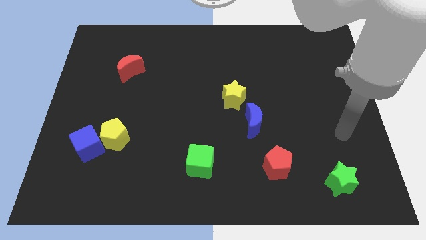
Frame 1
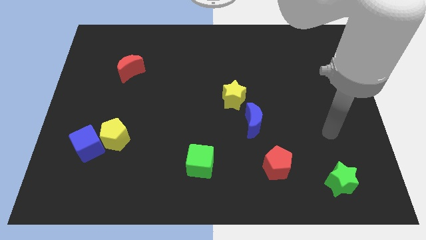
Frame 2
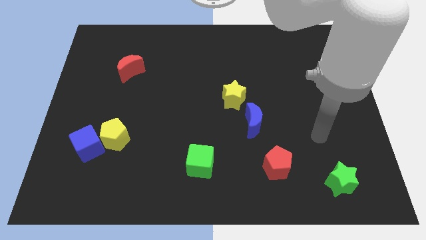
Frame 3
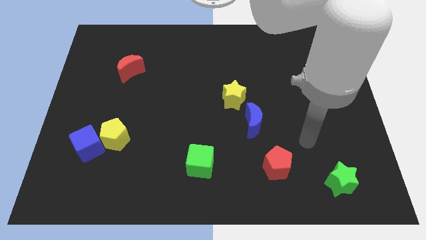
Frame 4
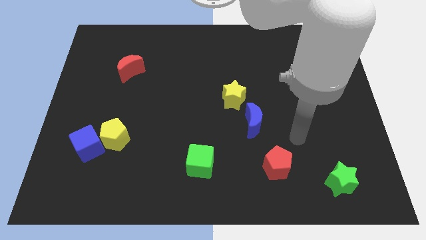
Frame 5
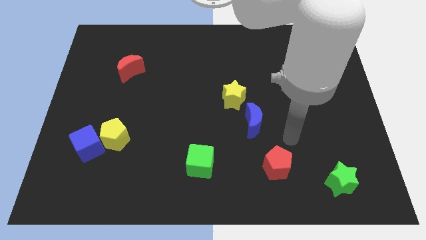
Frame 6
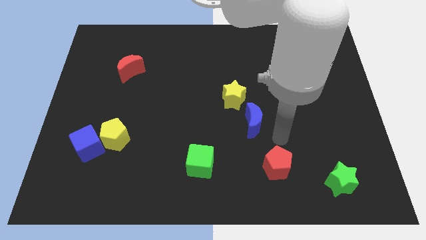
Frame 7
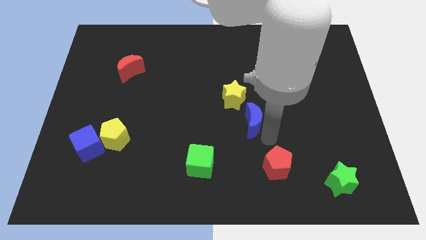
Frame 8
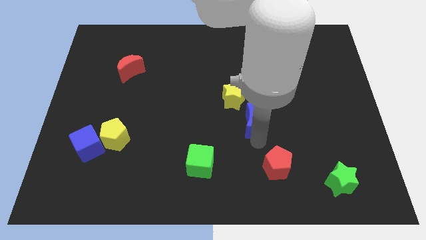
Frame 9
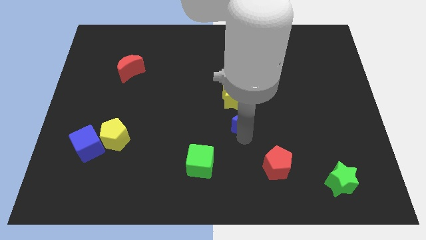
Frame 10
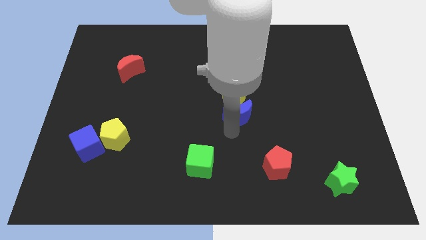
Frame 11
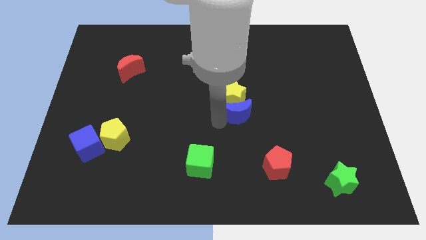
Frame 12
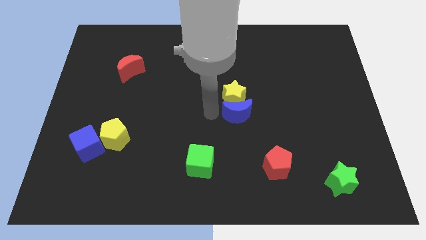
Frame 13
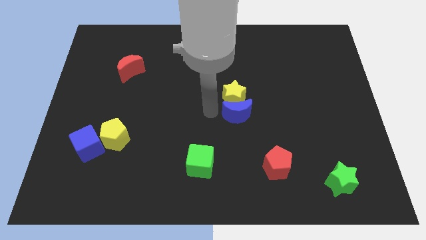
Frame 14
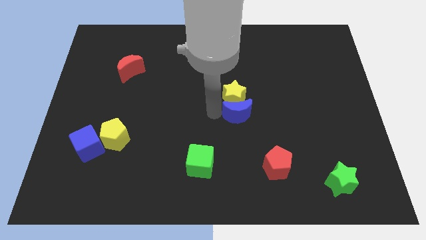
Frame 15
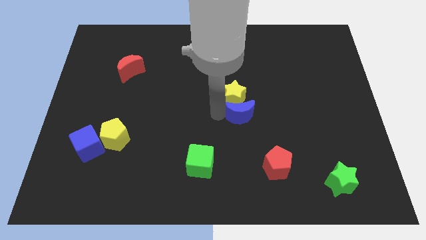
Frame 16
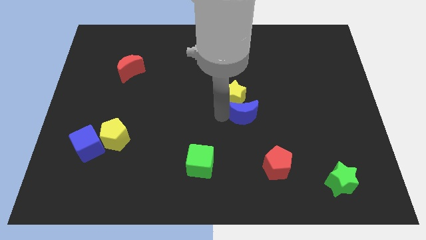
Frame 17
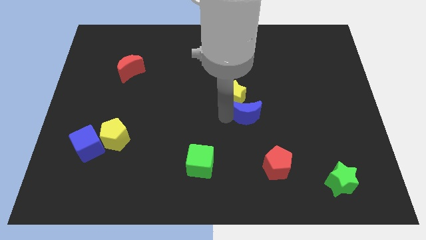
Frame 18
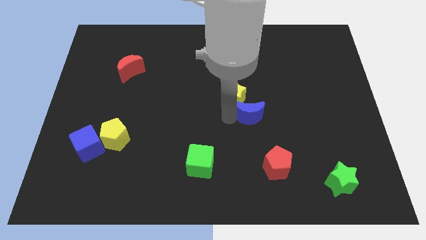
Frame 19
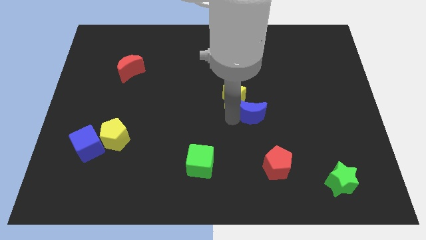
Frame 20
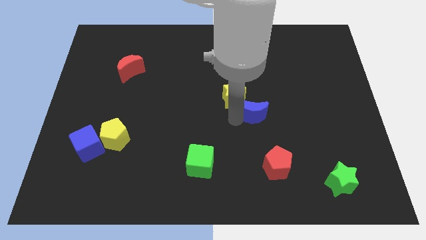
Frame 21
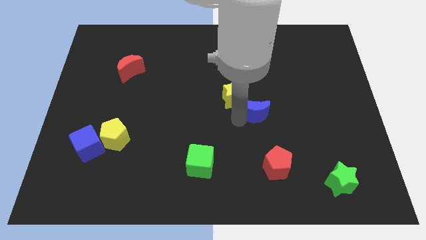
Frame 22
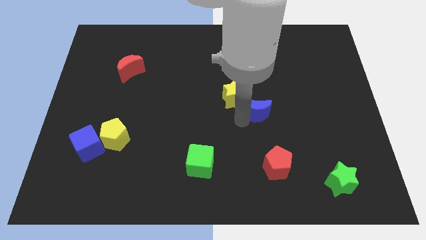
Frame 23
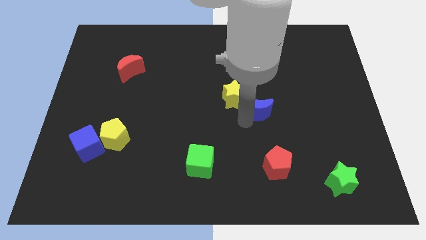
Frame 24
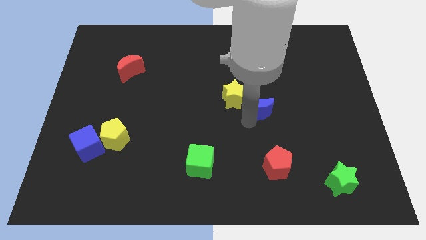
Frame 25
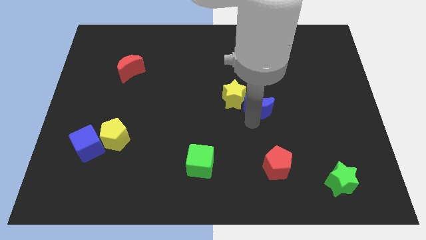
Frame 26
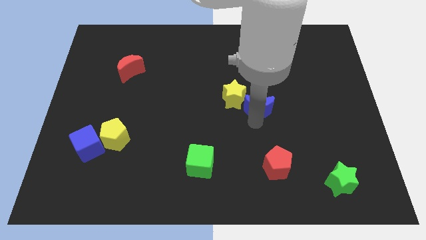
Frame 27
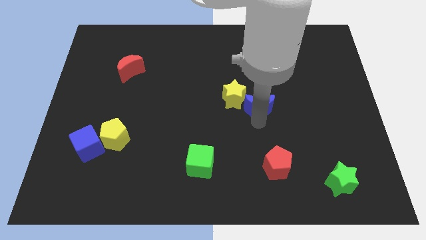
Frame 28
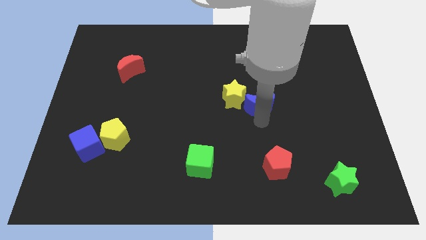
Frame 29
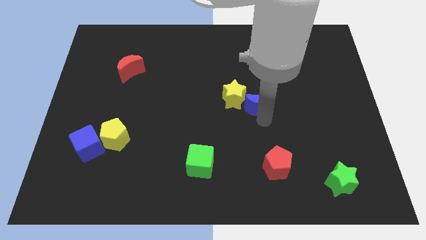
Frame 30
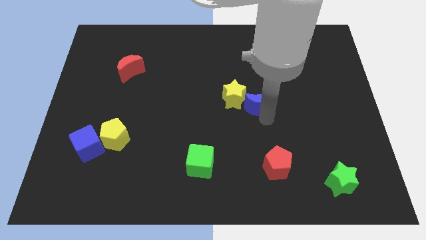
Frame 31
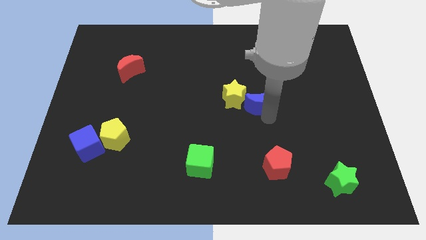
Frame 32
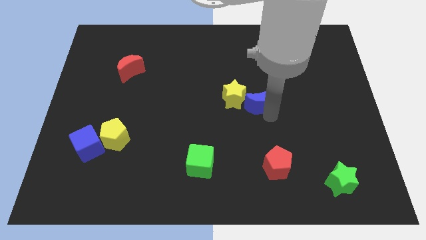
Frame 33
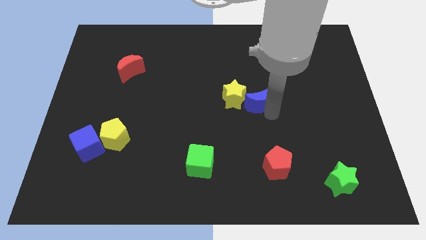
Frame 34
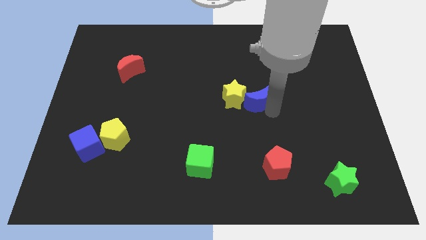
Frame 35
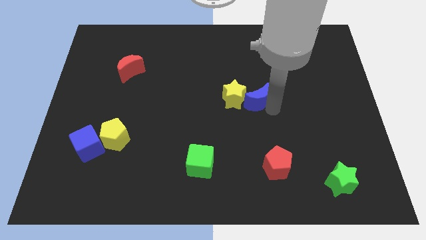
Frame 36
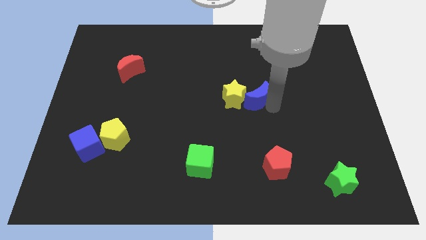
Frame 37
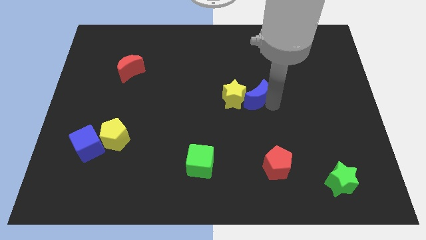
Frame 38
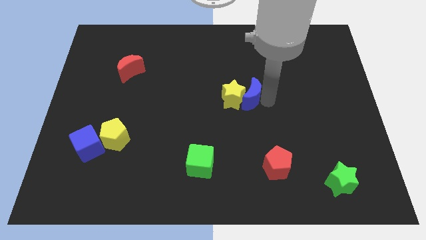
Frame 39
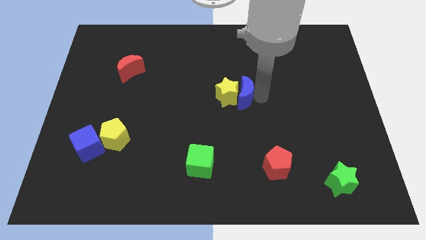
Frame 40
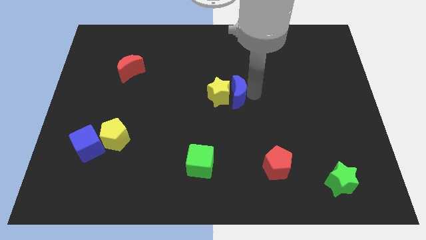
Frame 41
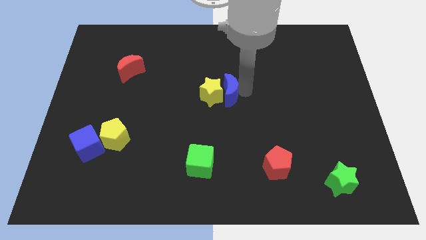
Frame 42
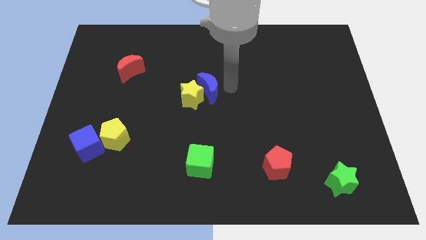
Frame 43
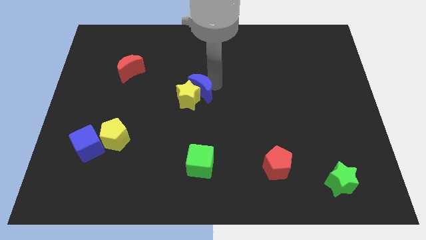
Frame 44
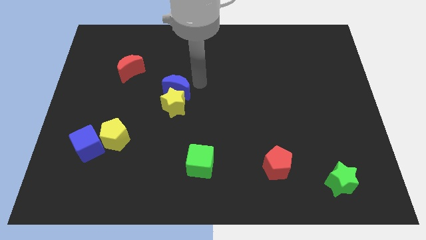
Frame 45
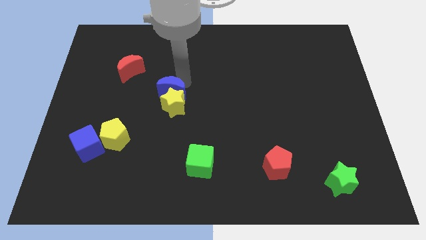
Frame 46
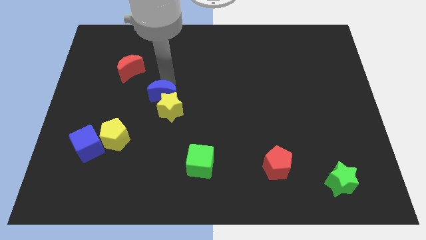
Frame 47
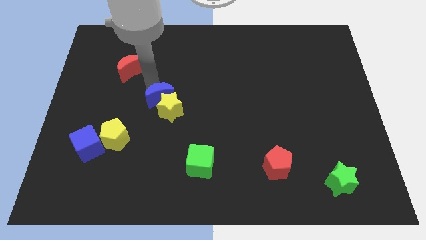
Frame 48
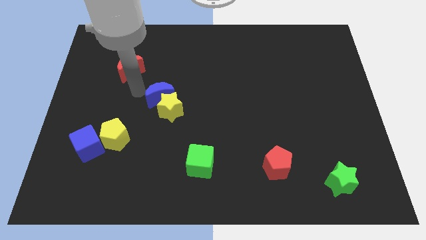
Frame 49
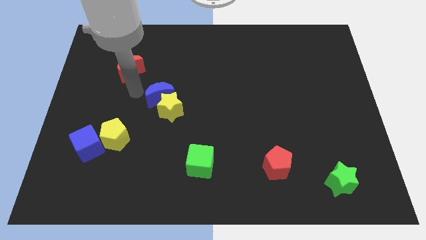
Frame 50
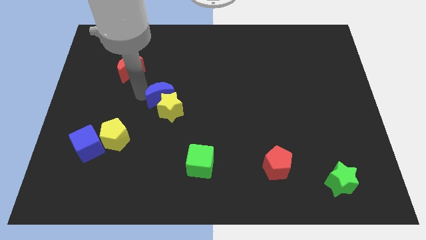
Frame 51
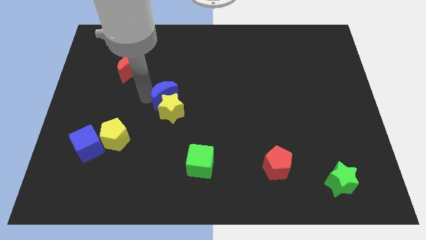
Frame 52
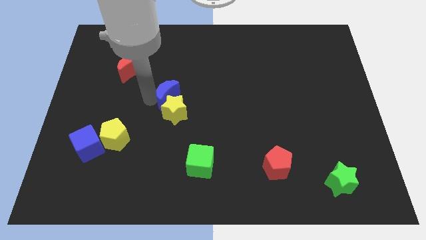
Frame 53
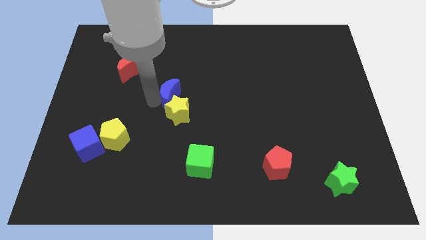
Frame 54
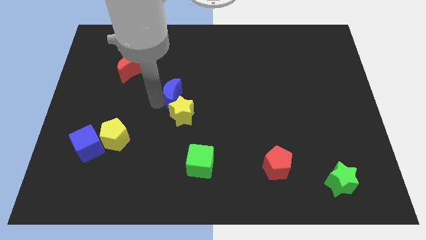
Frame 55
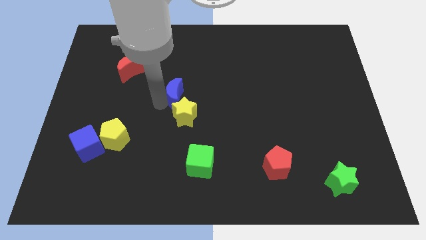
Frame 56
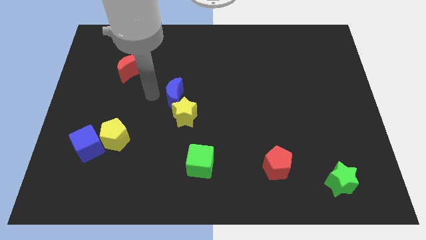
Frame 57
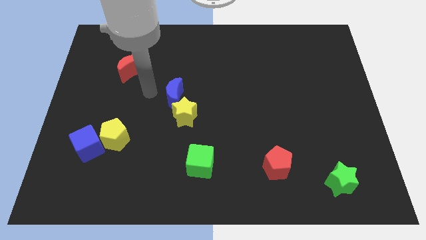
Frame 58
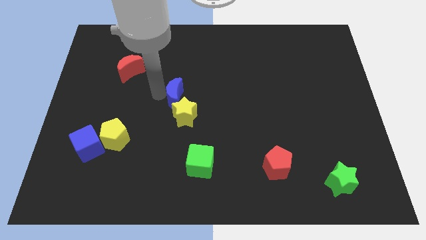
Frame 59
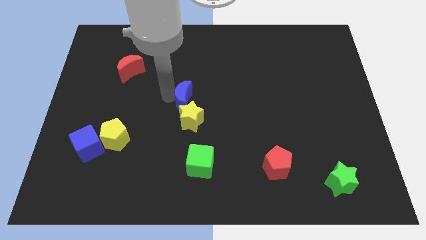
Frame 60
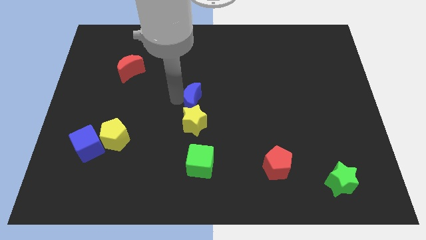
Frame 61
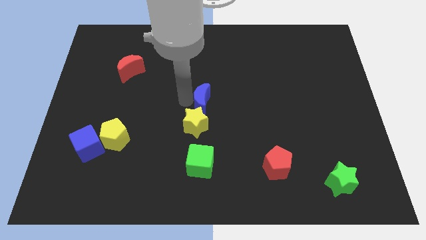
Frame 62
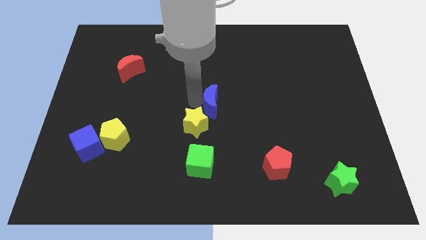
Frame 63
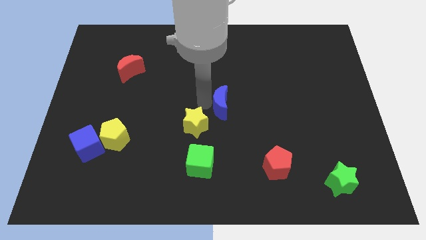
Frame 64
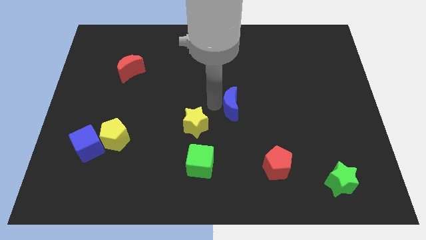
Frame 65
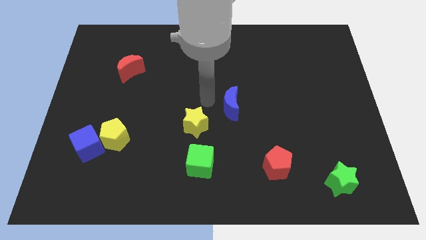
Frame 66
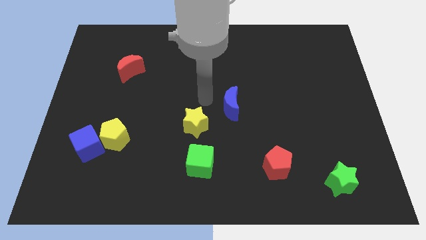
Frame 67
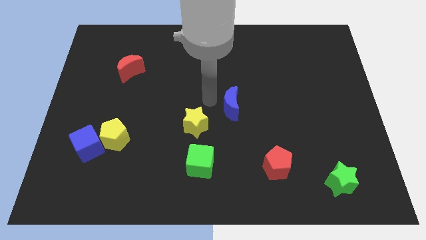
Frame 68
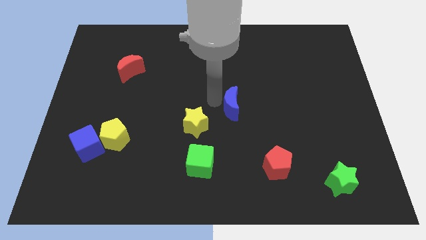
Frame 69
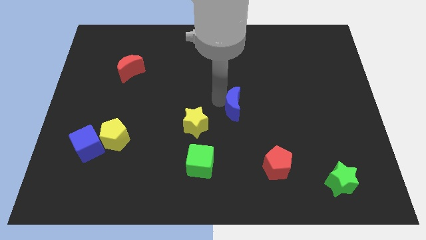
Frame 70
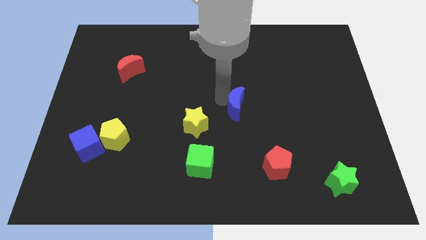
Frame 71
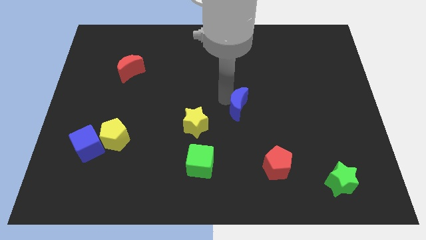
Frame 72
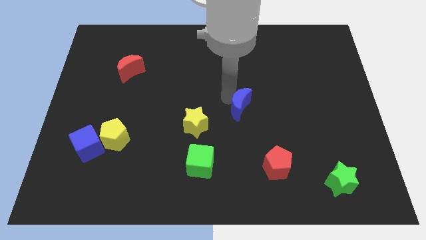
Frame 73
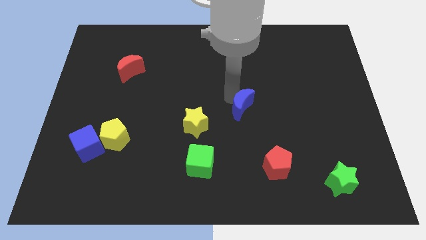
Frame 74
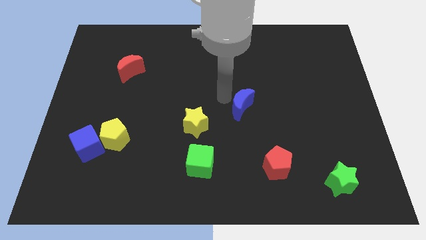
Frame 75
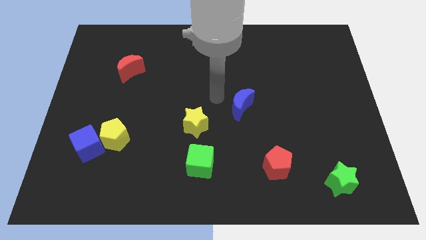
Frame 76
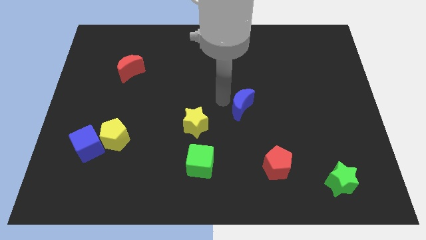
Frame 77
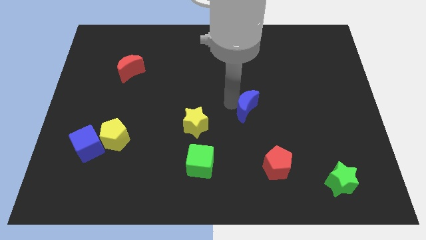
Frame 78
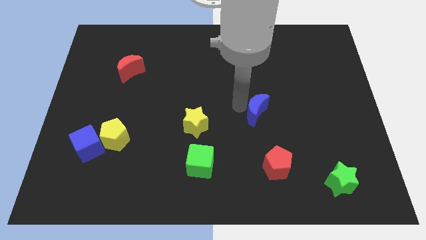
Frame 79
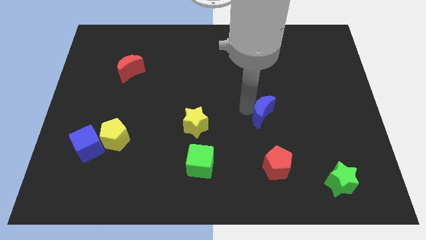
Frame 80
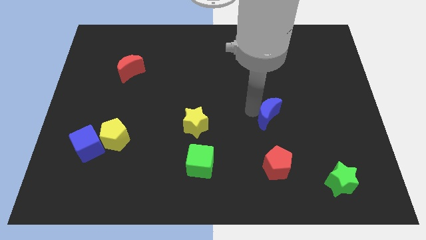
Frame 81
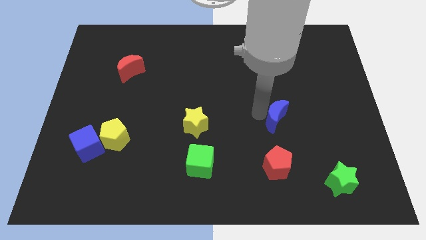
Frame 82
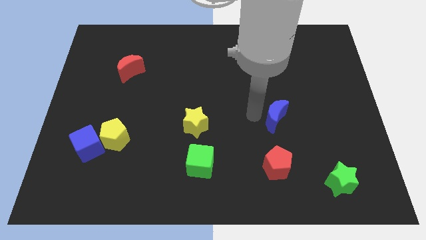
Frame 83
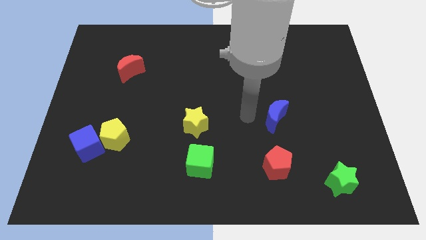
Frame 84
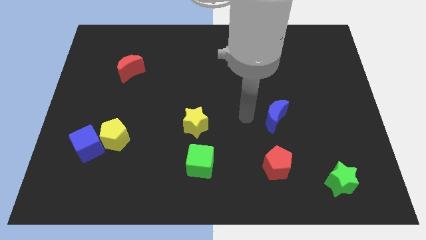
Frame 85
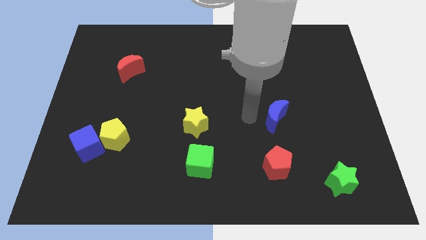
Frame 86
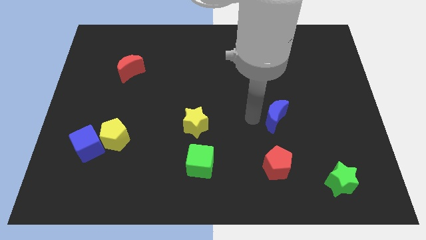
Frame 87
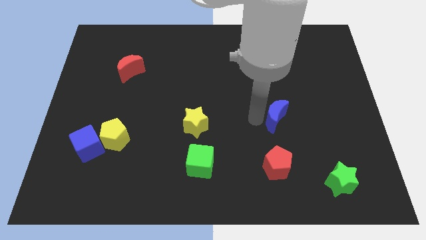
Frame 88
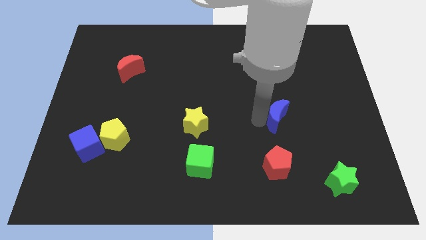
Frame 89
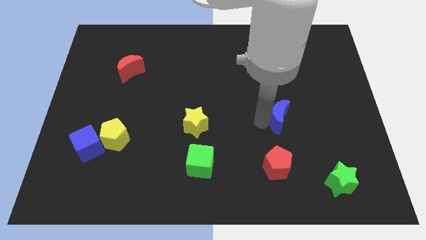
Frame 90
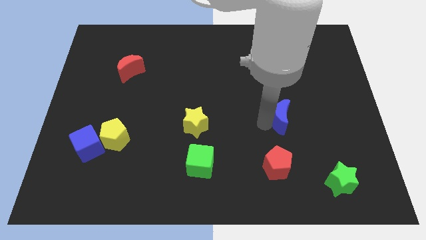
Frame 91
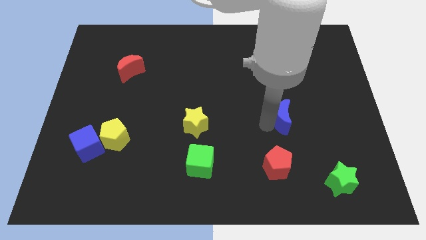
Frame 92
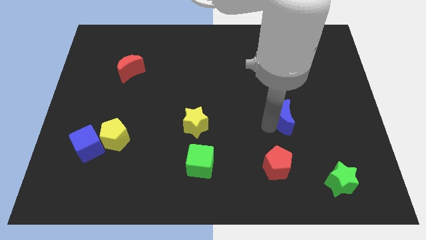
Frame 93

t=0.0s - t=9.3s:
push the blue moon a little bit to the right
